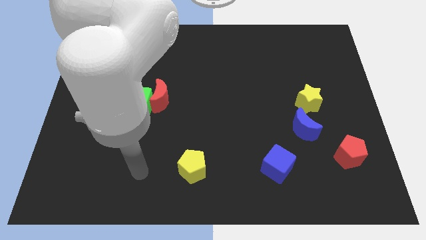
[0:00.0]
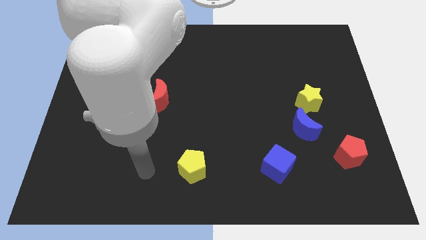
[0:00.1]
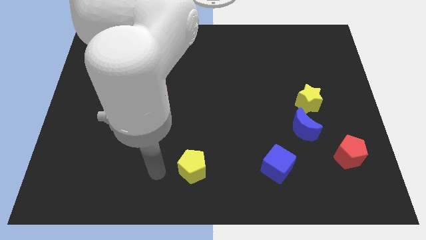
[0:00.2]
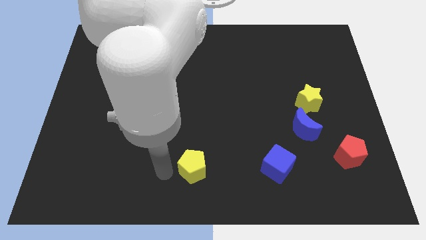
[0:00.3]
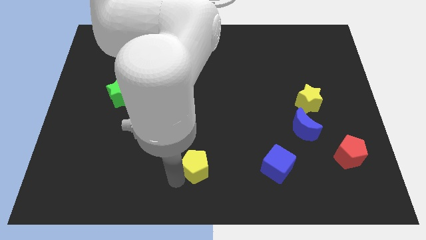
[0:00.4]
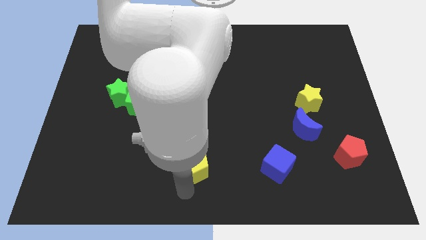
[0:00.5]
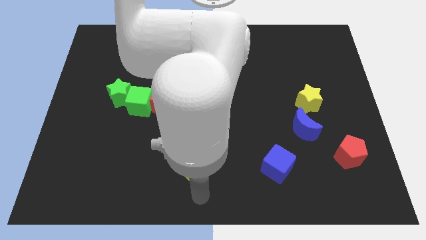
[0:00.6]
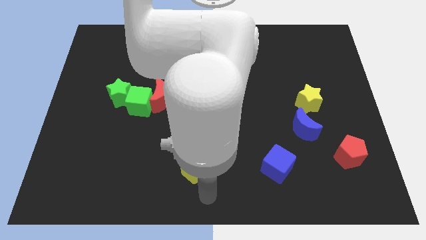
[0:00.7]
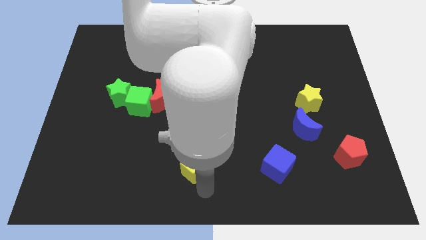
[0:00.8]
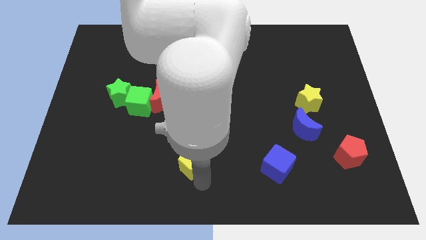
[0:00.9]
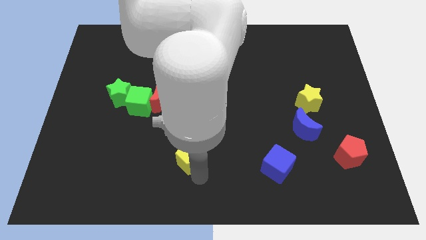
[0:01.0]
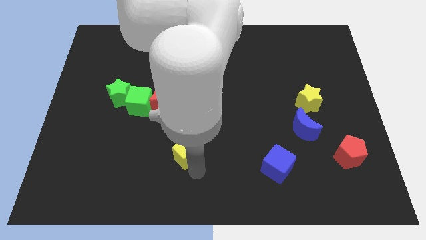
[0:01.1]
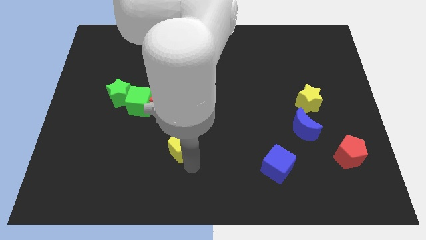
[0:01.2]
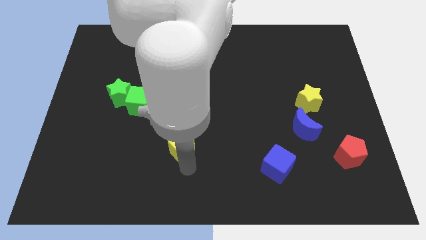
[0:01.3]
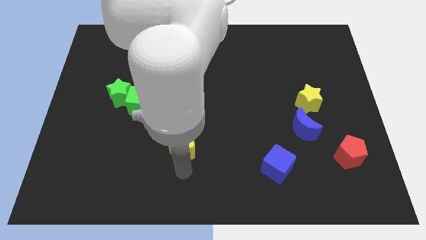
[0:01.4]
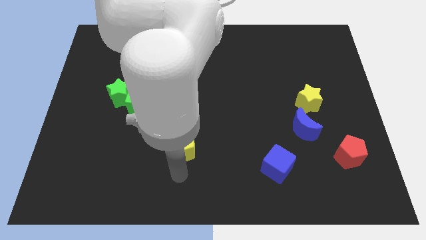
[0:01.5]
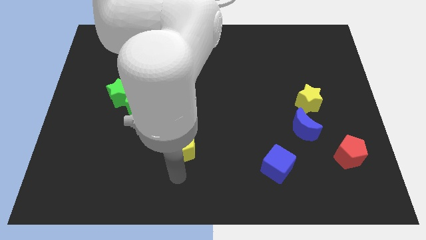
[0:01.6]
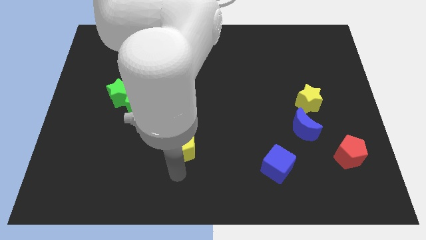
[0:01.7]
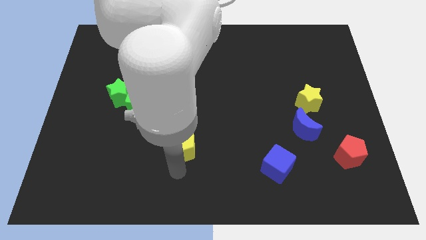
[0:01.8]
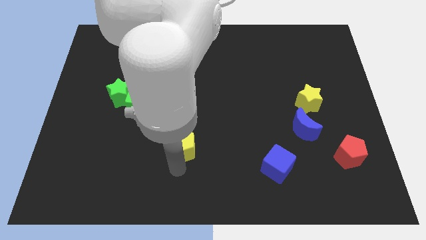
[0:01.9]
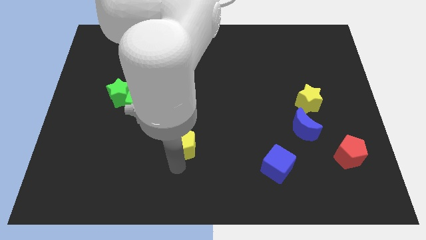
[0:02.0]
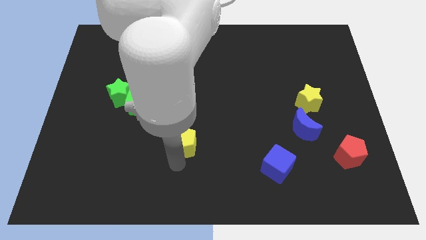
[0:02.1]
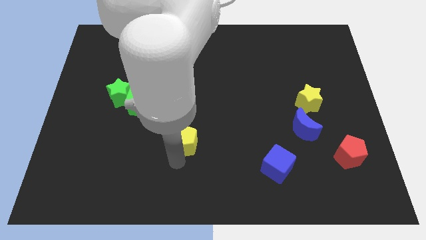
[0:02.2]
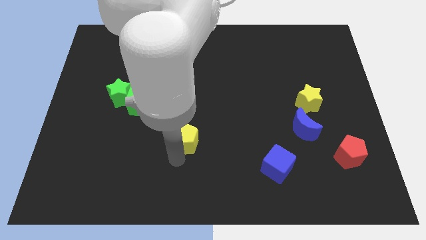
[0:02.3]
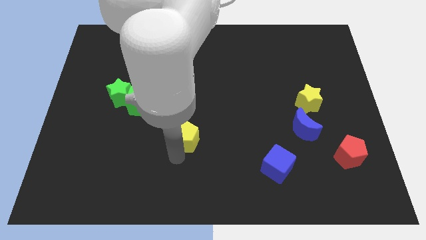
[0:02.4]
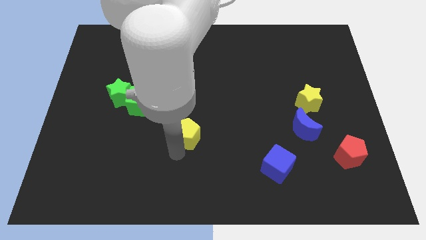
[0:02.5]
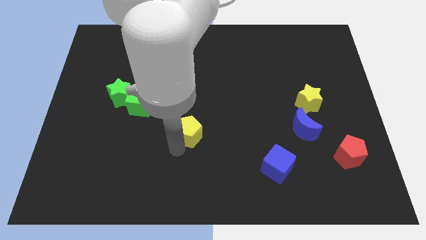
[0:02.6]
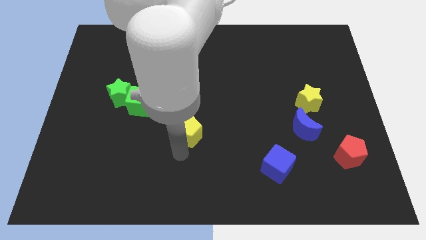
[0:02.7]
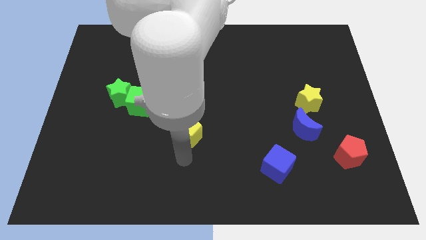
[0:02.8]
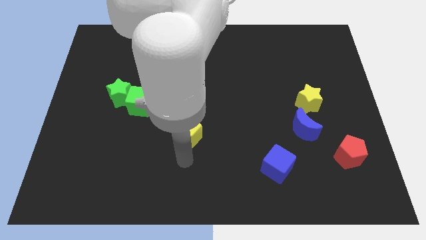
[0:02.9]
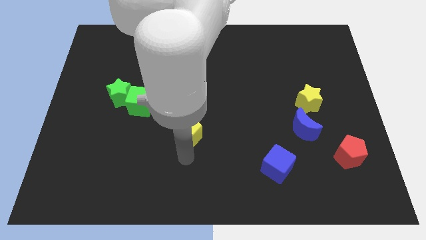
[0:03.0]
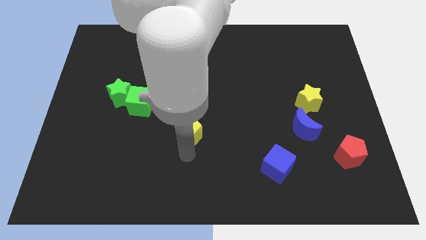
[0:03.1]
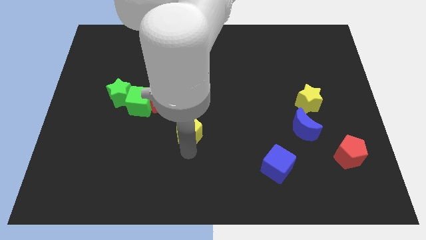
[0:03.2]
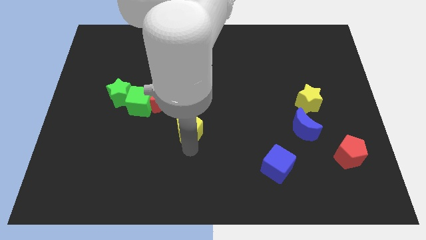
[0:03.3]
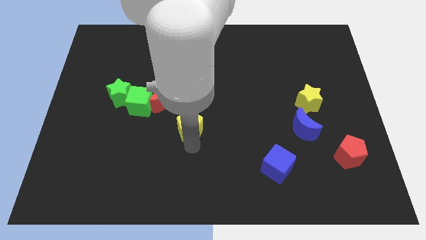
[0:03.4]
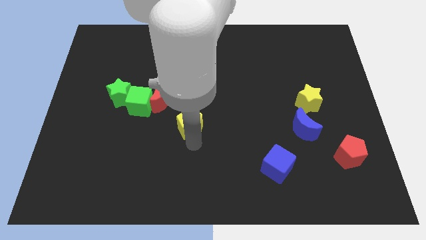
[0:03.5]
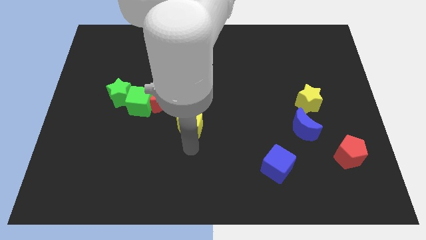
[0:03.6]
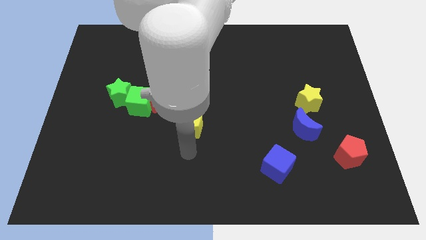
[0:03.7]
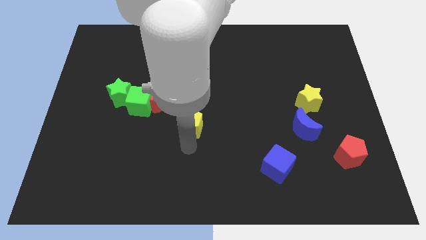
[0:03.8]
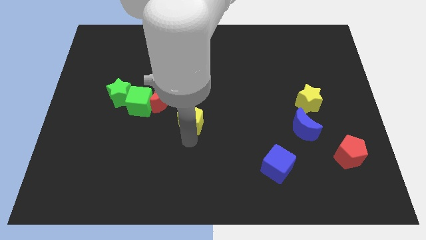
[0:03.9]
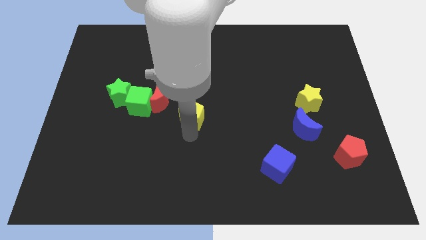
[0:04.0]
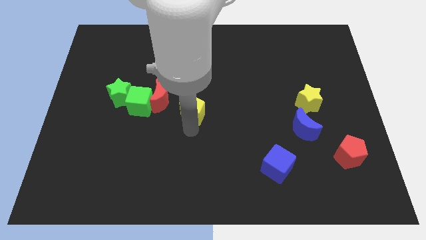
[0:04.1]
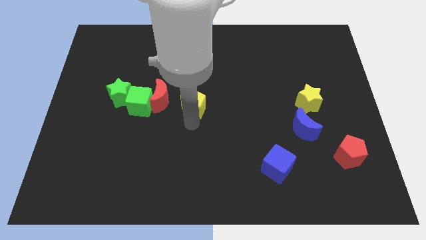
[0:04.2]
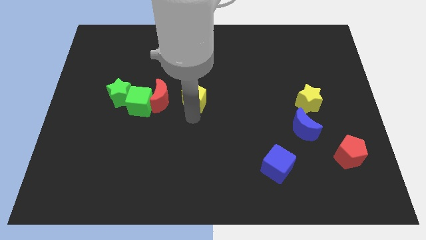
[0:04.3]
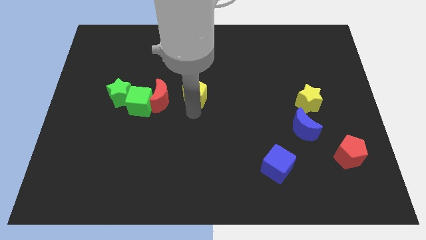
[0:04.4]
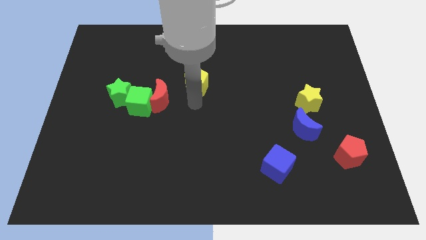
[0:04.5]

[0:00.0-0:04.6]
push the yellow pentagon up

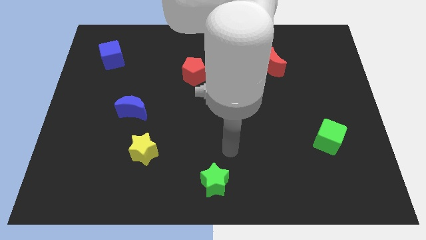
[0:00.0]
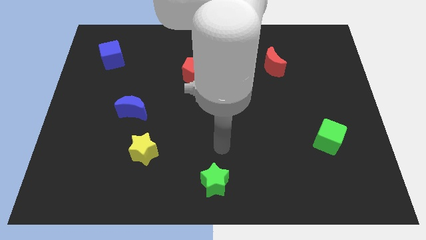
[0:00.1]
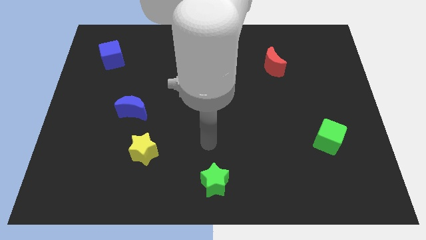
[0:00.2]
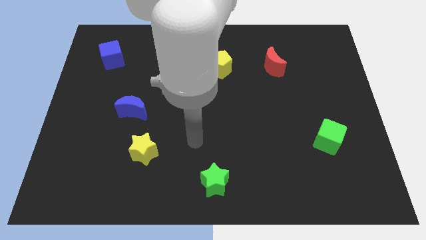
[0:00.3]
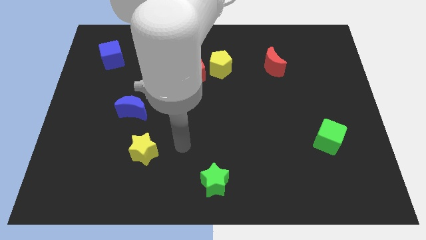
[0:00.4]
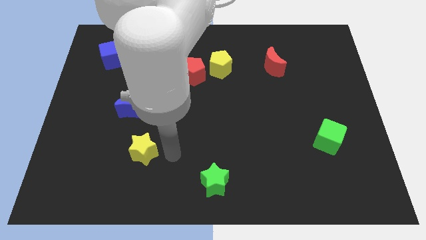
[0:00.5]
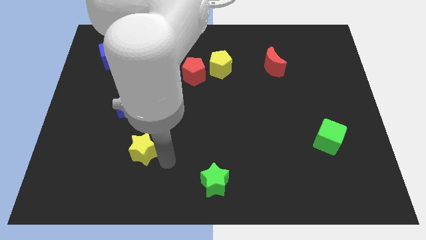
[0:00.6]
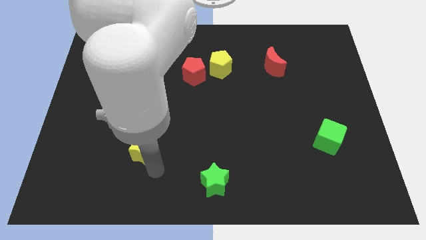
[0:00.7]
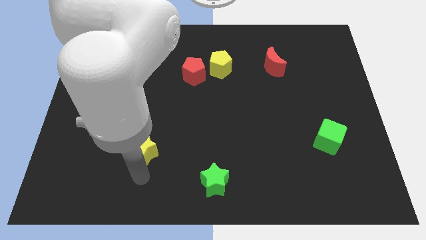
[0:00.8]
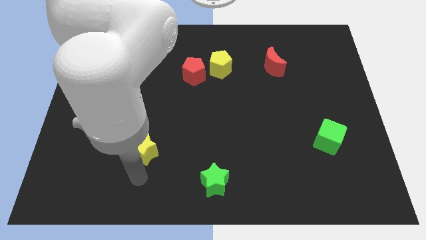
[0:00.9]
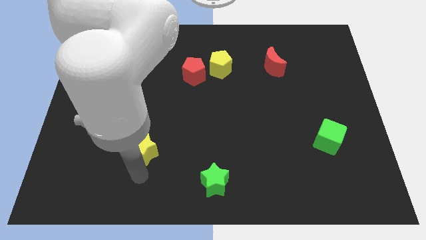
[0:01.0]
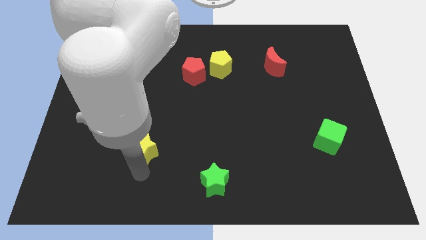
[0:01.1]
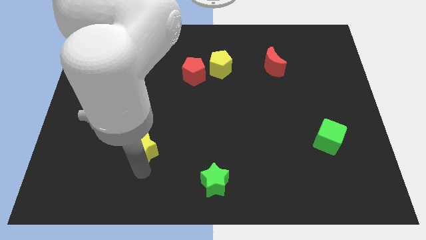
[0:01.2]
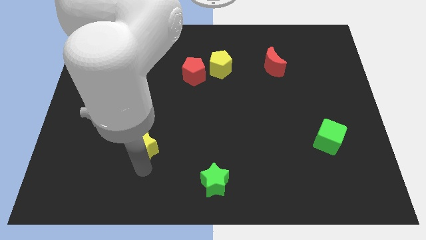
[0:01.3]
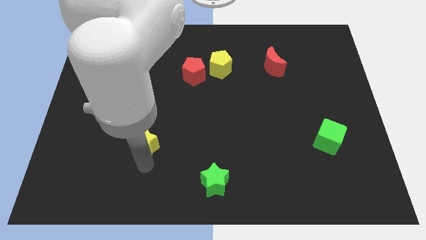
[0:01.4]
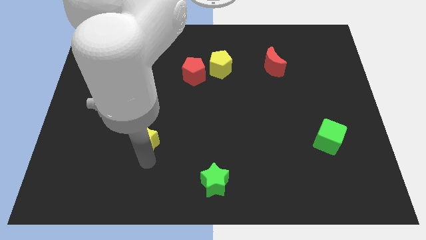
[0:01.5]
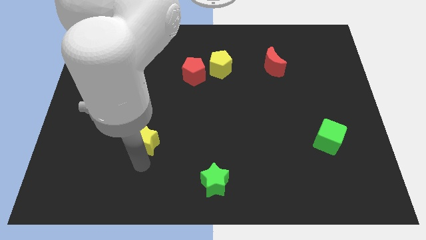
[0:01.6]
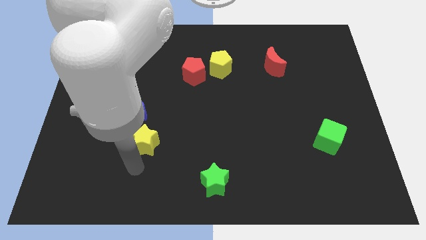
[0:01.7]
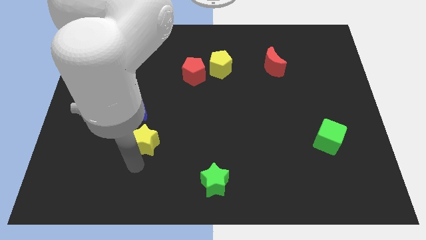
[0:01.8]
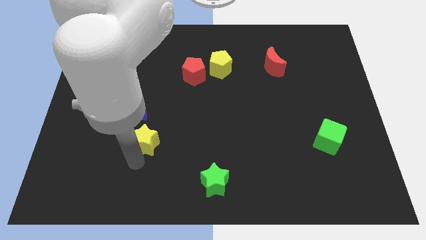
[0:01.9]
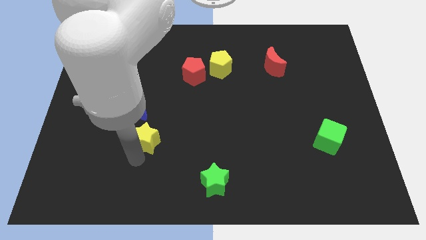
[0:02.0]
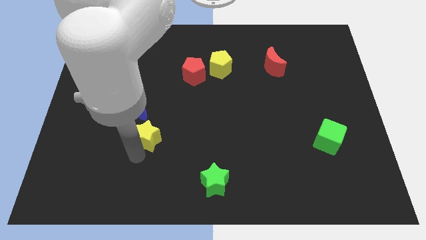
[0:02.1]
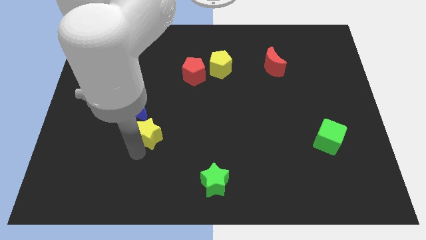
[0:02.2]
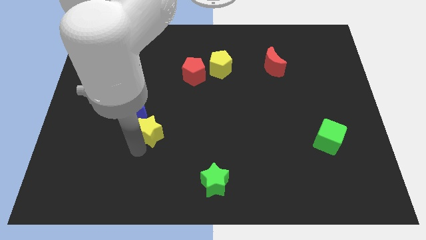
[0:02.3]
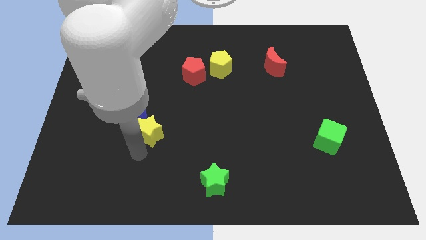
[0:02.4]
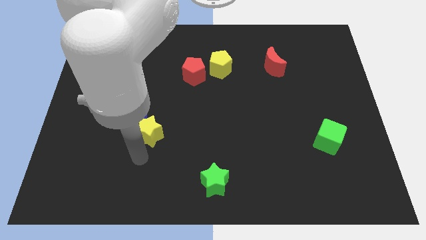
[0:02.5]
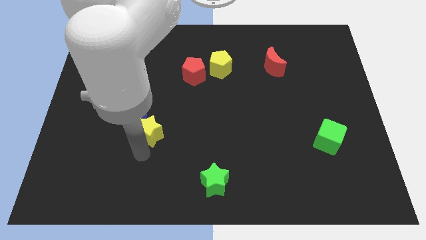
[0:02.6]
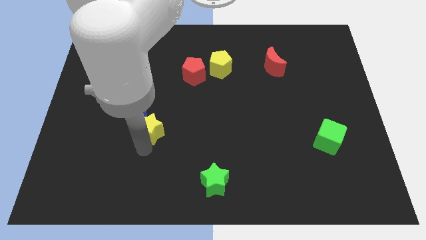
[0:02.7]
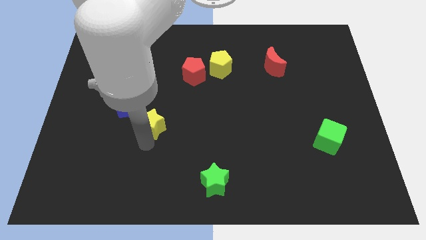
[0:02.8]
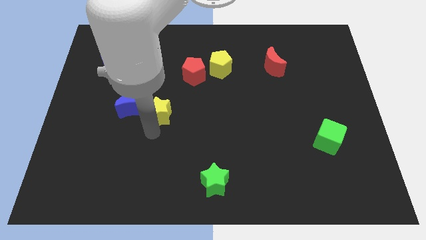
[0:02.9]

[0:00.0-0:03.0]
push the yellow star upwards a little

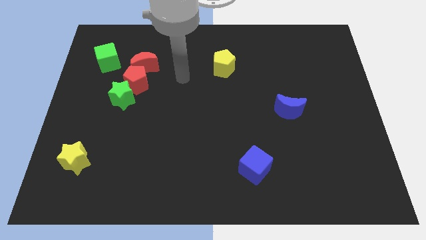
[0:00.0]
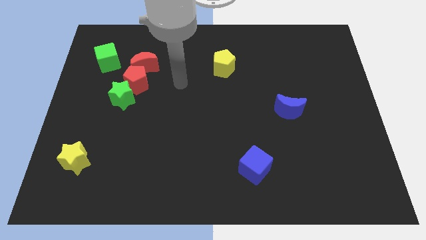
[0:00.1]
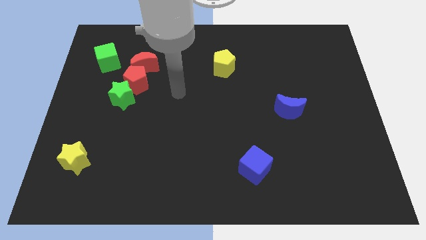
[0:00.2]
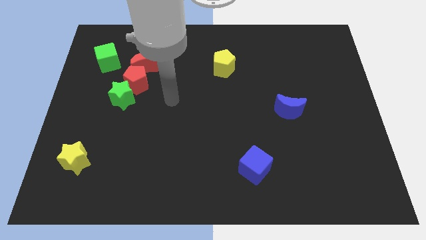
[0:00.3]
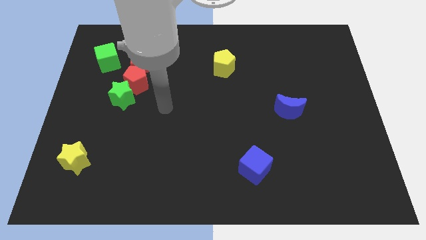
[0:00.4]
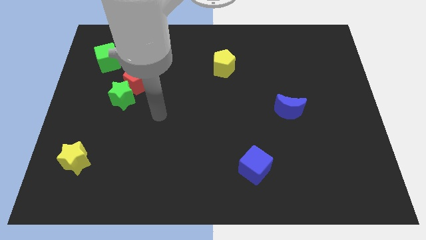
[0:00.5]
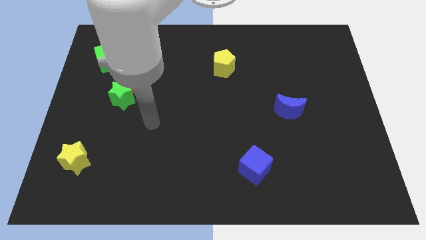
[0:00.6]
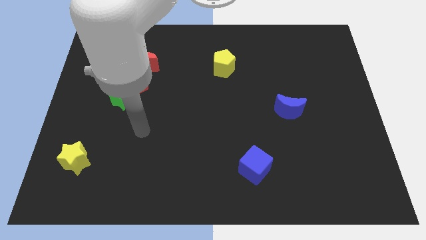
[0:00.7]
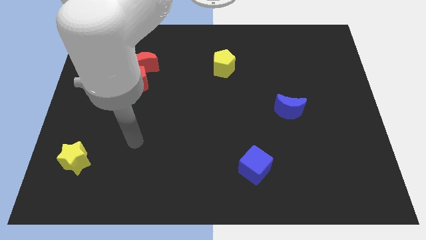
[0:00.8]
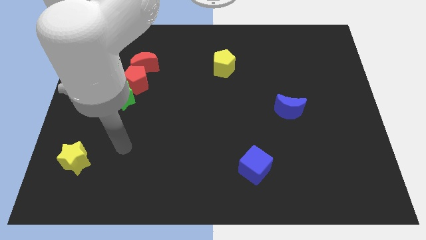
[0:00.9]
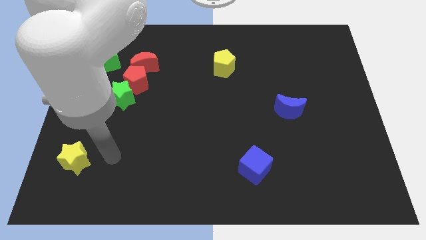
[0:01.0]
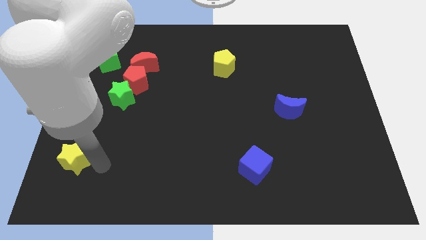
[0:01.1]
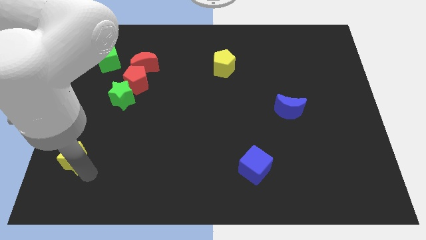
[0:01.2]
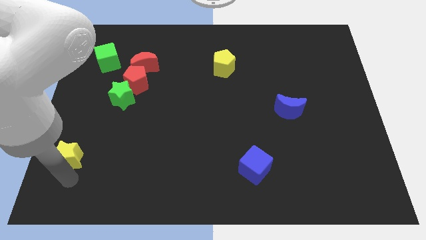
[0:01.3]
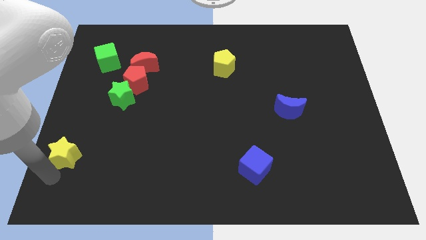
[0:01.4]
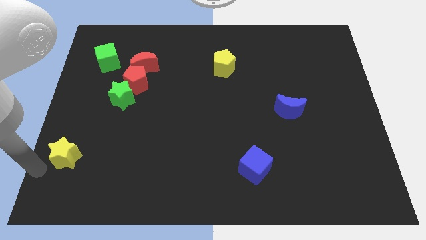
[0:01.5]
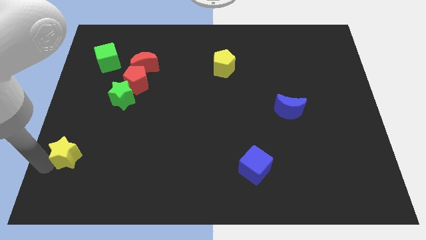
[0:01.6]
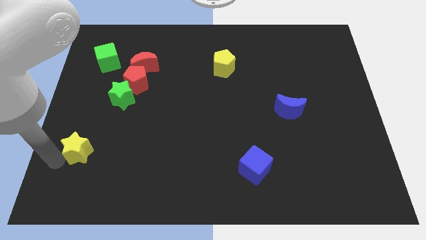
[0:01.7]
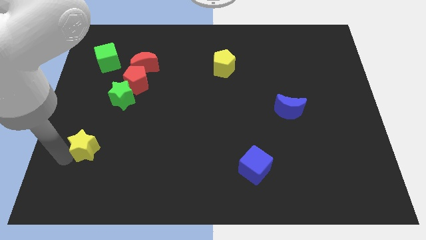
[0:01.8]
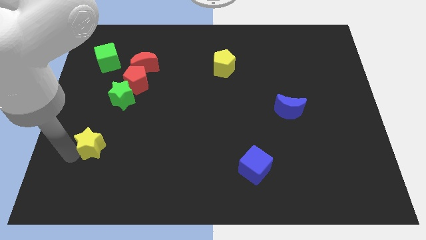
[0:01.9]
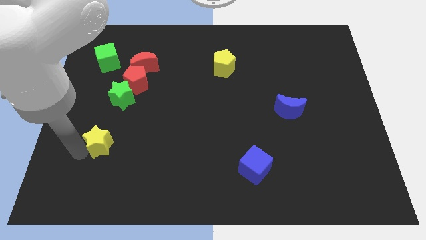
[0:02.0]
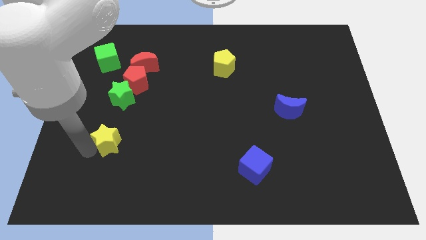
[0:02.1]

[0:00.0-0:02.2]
slide the yellow star up and then to the right slightly
